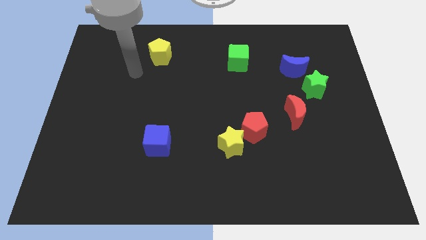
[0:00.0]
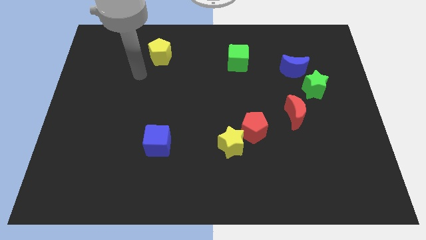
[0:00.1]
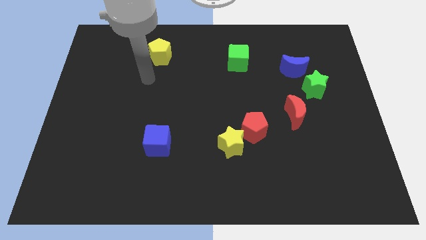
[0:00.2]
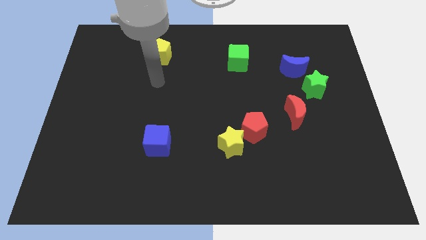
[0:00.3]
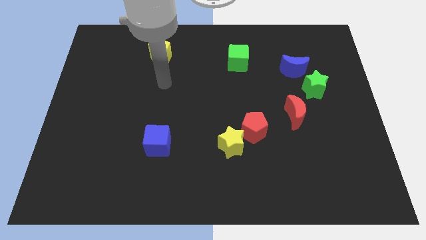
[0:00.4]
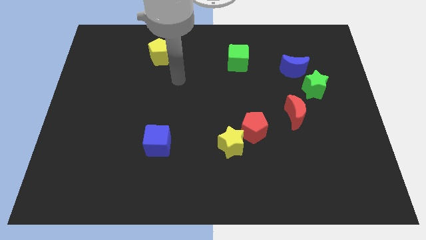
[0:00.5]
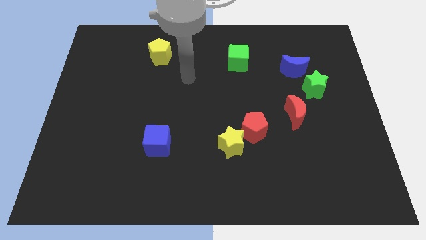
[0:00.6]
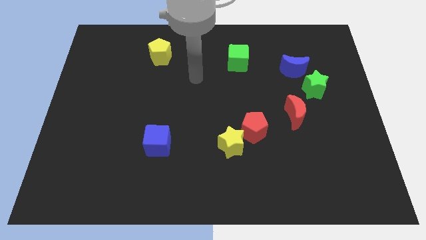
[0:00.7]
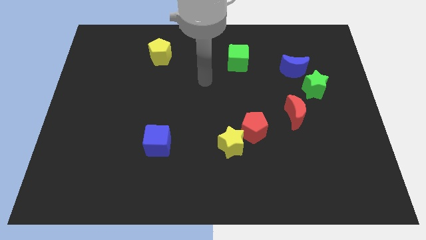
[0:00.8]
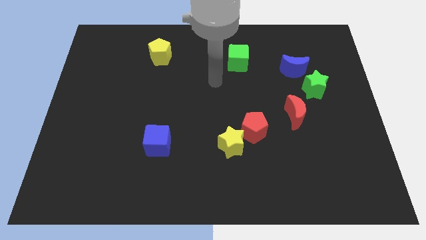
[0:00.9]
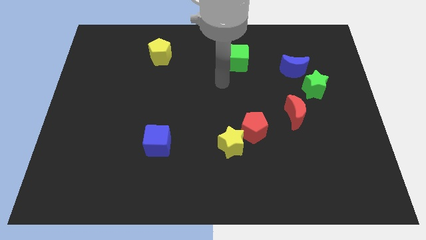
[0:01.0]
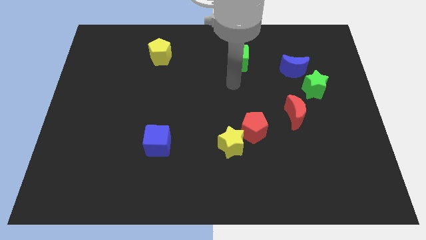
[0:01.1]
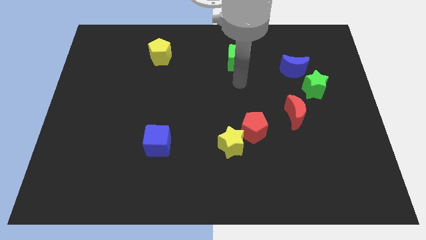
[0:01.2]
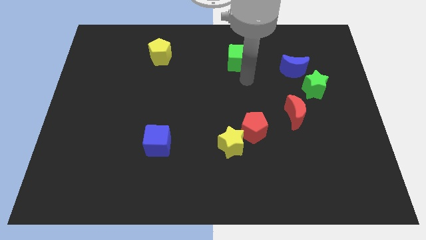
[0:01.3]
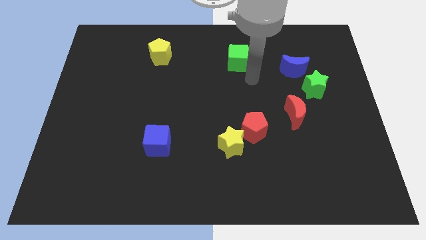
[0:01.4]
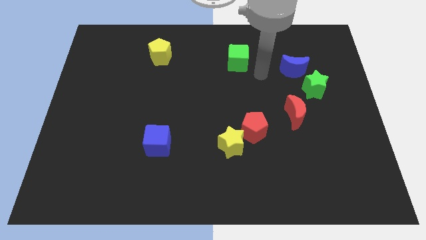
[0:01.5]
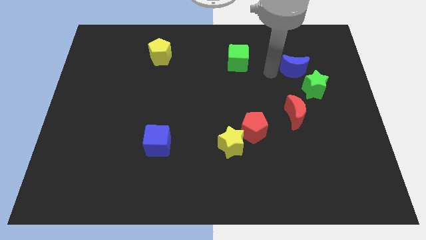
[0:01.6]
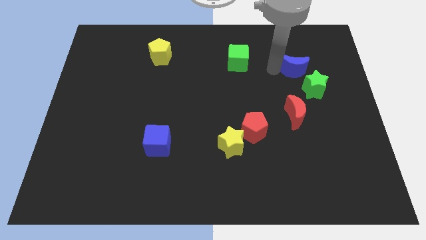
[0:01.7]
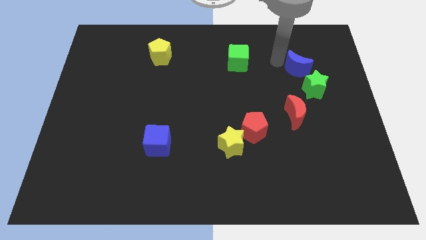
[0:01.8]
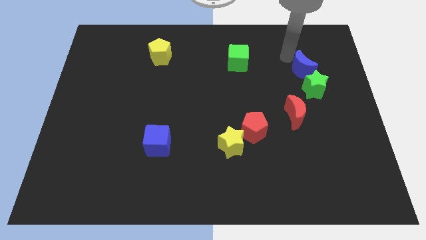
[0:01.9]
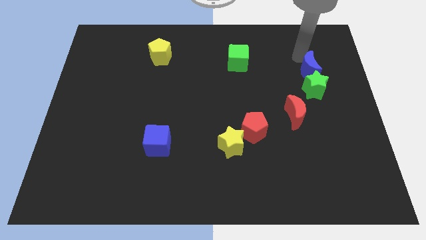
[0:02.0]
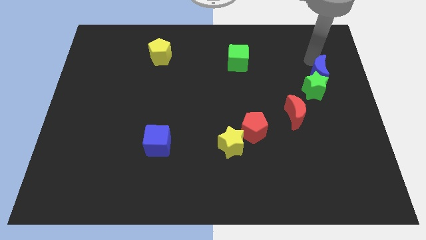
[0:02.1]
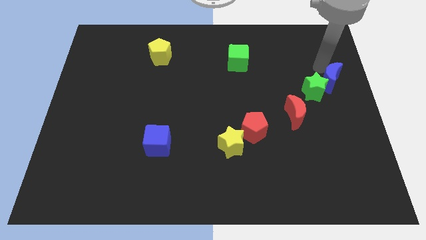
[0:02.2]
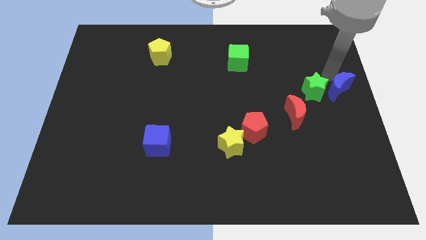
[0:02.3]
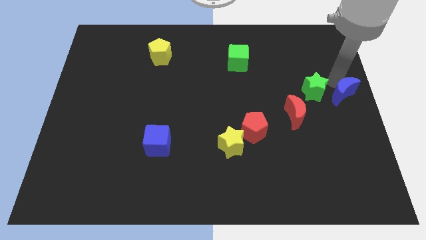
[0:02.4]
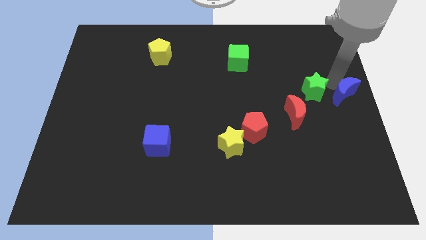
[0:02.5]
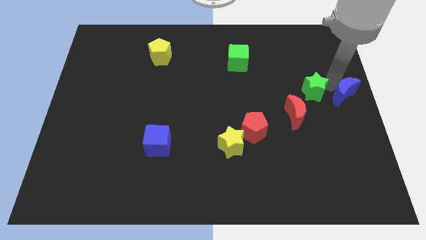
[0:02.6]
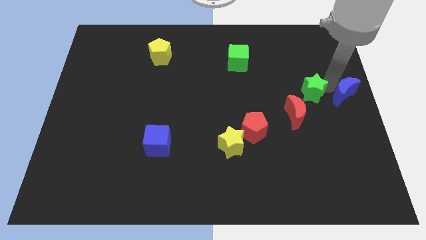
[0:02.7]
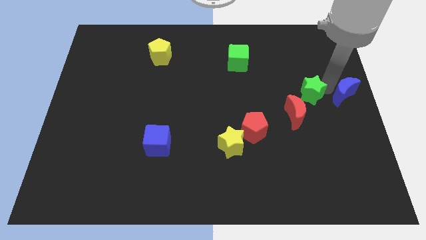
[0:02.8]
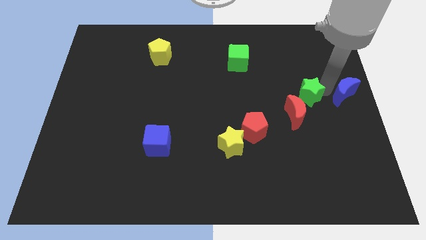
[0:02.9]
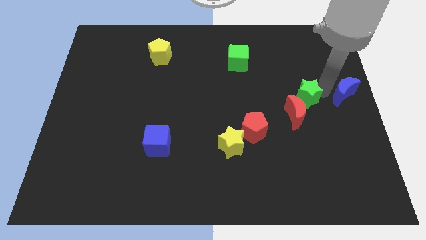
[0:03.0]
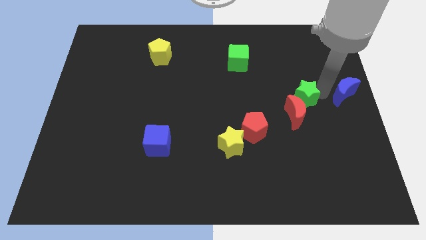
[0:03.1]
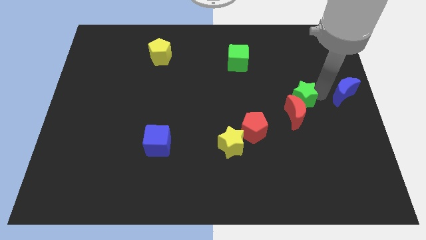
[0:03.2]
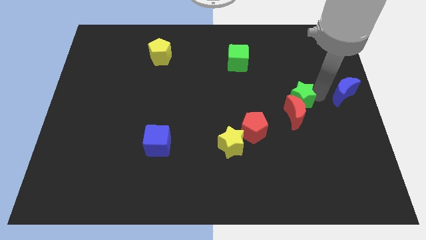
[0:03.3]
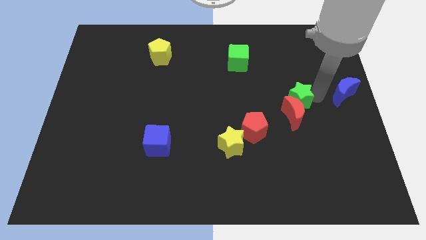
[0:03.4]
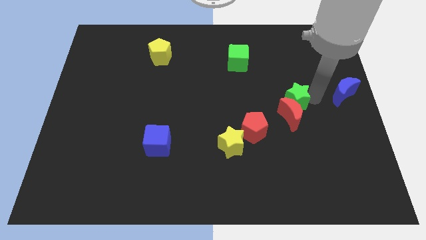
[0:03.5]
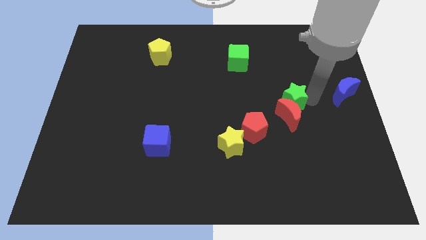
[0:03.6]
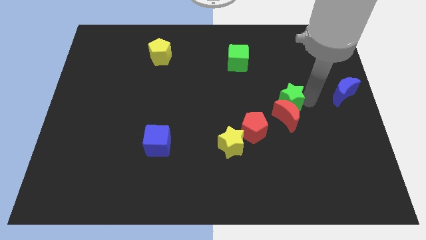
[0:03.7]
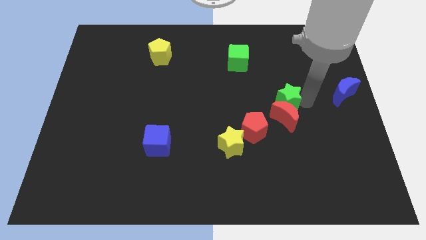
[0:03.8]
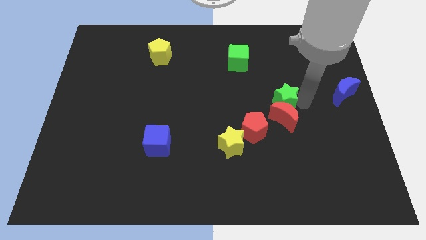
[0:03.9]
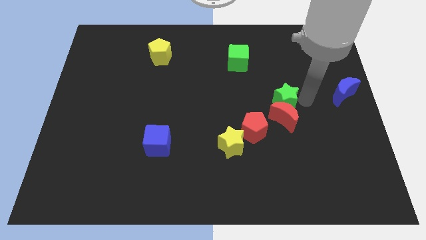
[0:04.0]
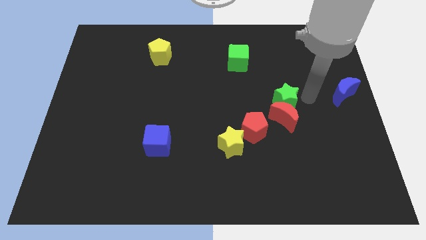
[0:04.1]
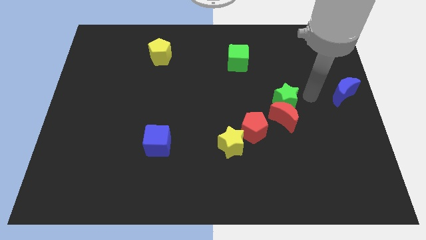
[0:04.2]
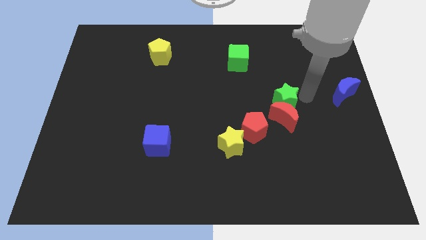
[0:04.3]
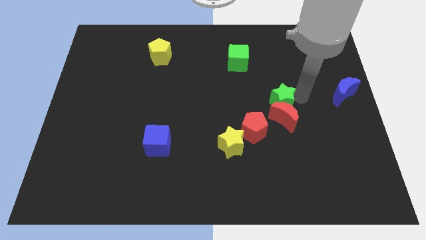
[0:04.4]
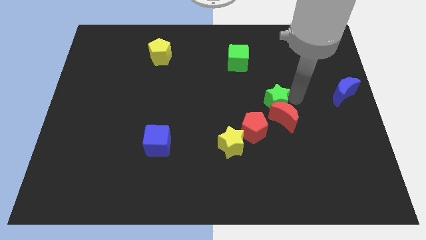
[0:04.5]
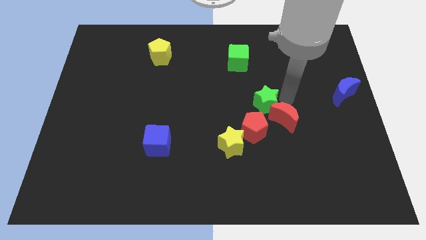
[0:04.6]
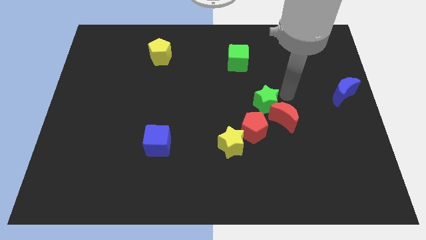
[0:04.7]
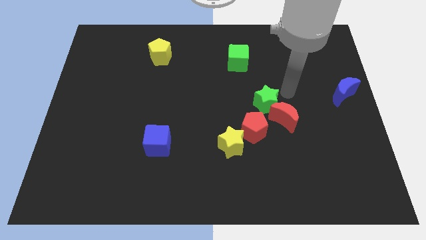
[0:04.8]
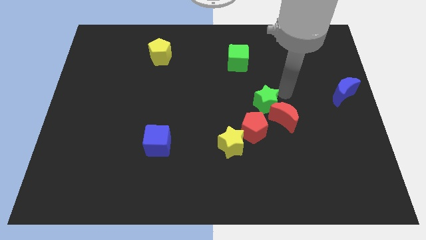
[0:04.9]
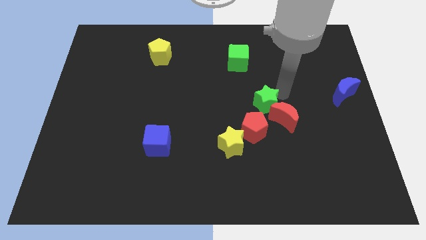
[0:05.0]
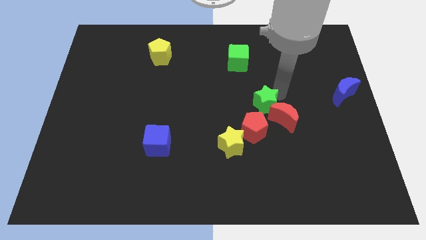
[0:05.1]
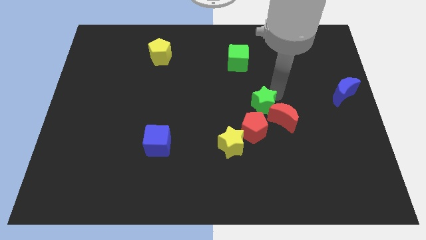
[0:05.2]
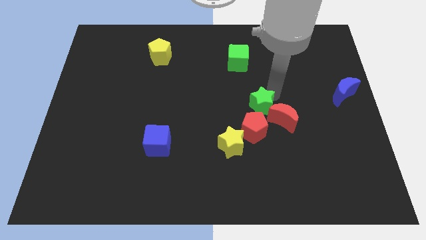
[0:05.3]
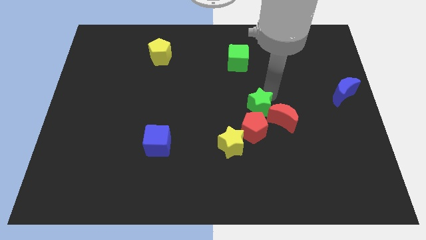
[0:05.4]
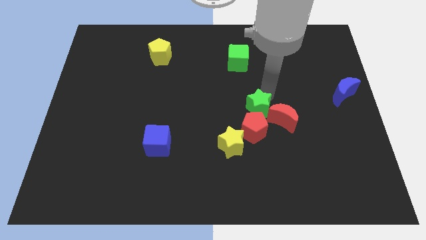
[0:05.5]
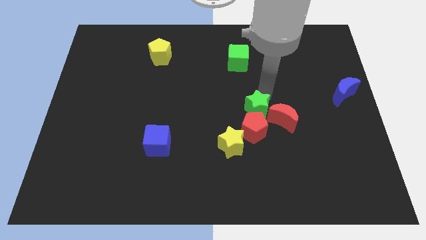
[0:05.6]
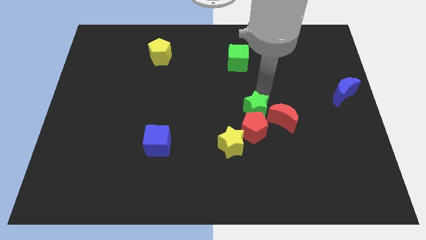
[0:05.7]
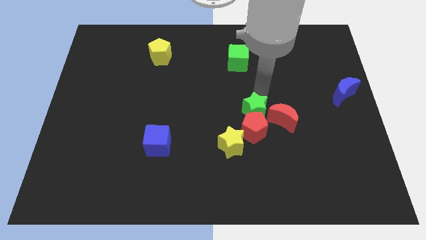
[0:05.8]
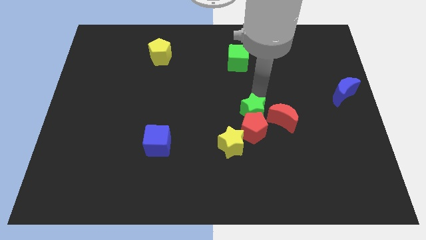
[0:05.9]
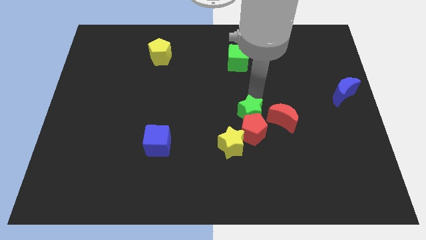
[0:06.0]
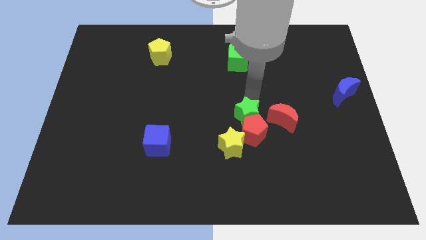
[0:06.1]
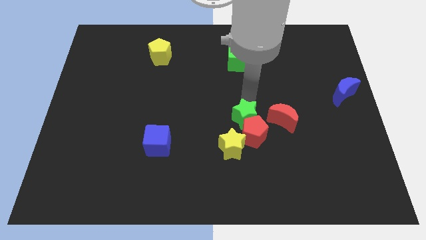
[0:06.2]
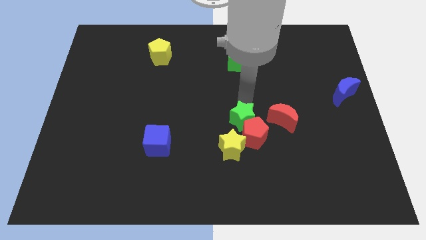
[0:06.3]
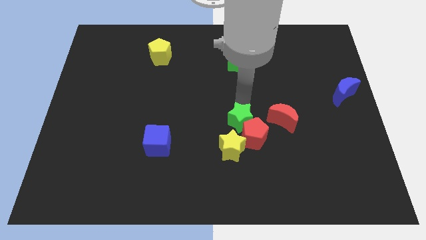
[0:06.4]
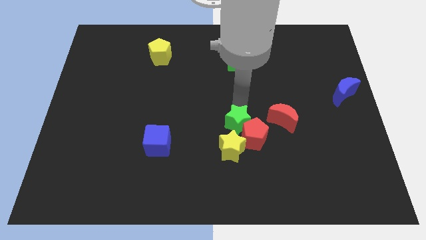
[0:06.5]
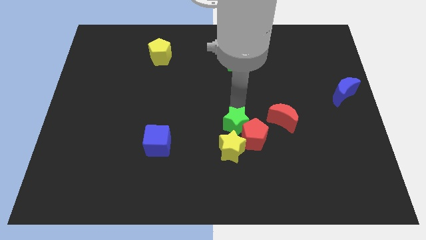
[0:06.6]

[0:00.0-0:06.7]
push the green star downwards and then to the left

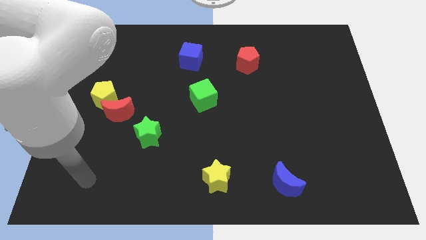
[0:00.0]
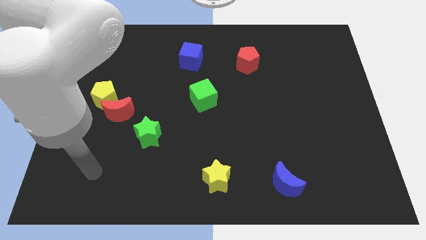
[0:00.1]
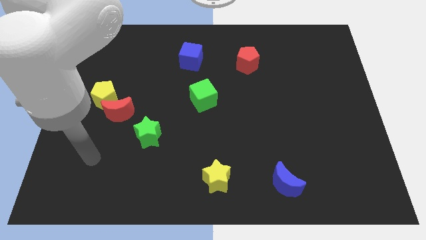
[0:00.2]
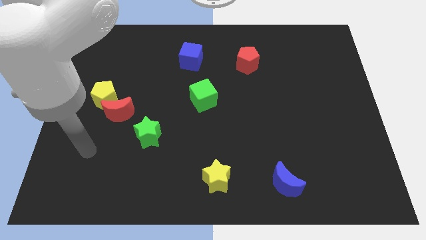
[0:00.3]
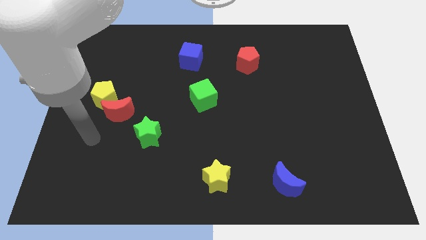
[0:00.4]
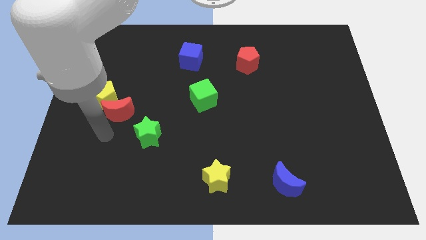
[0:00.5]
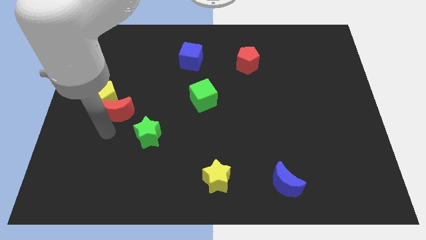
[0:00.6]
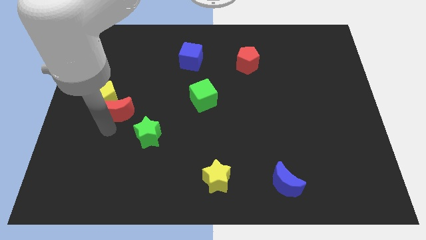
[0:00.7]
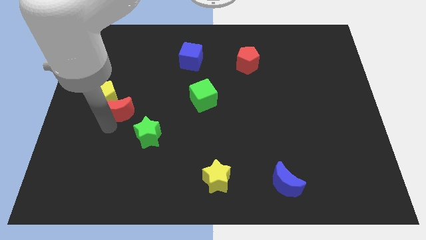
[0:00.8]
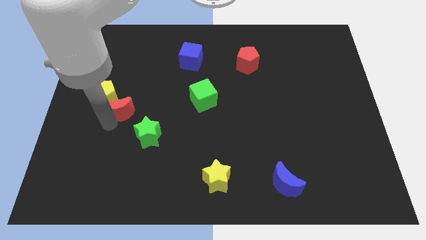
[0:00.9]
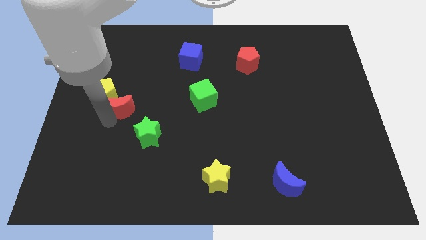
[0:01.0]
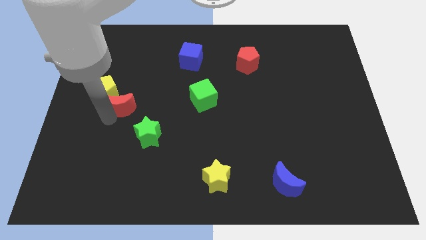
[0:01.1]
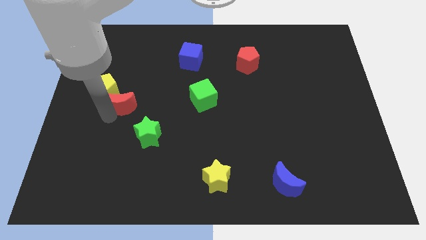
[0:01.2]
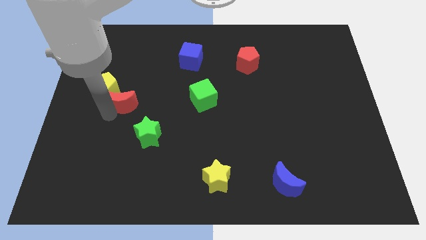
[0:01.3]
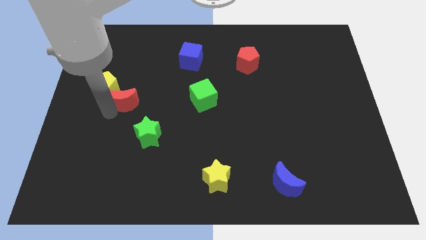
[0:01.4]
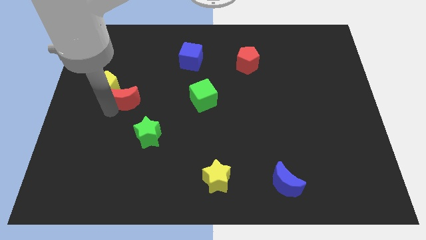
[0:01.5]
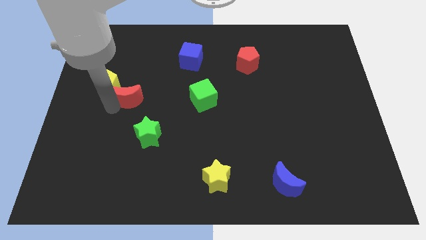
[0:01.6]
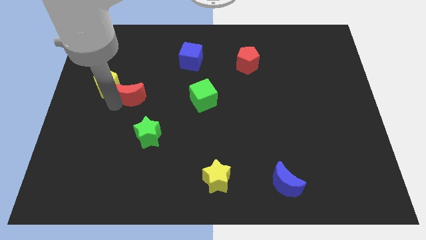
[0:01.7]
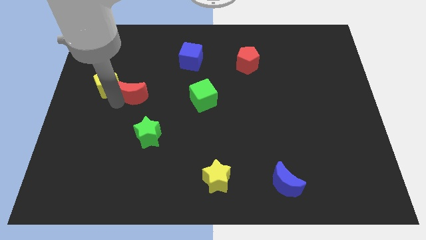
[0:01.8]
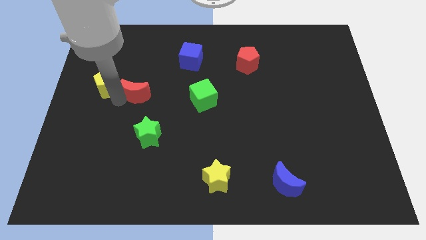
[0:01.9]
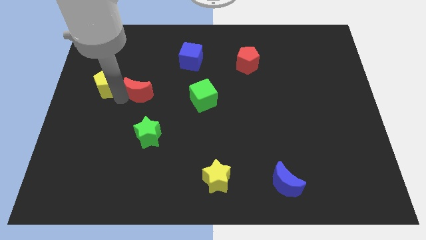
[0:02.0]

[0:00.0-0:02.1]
slightly slide the red moon upwards and then right
